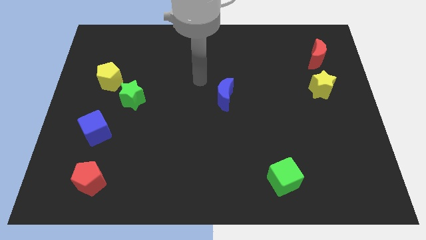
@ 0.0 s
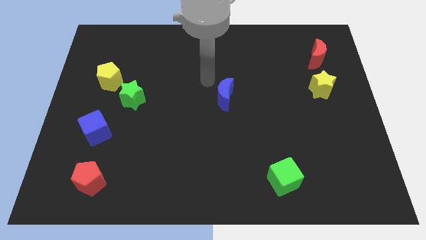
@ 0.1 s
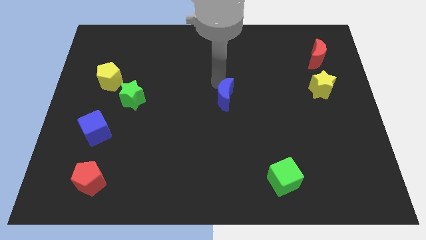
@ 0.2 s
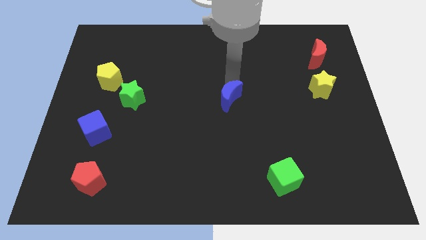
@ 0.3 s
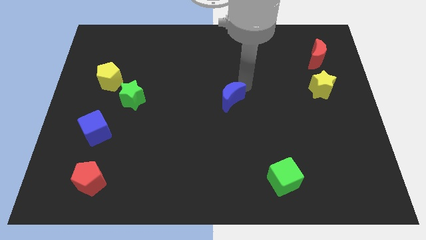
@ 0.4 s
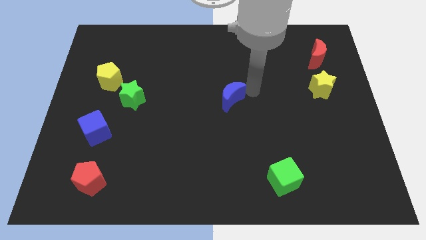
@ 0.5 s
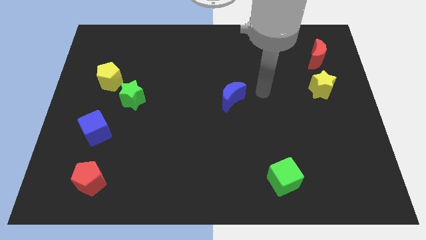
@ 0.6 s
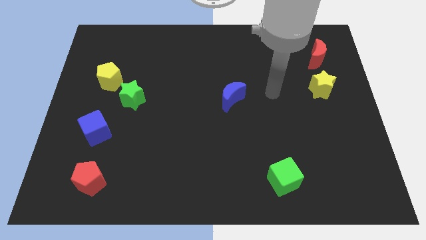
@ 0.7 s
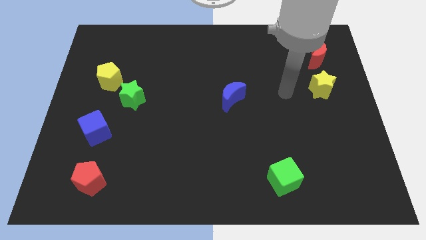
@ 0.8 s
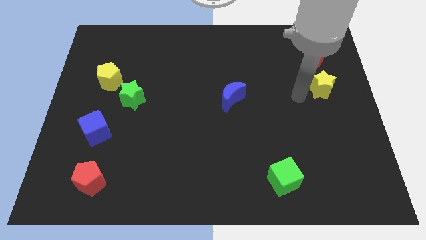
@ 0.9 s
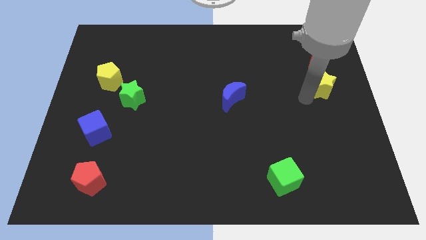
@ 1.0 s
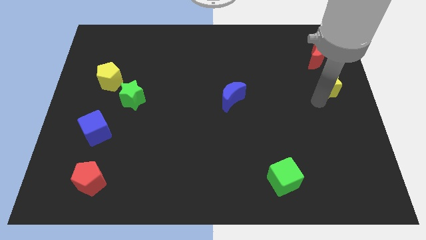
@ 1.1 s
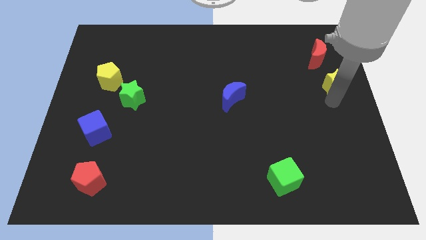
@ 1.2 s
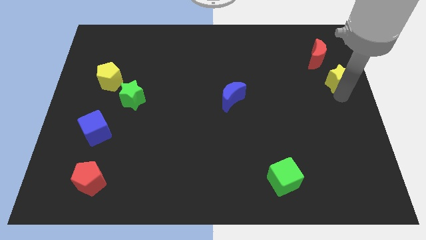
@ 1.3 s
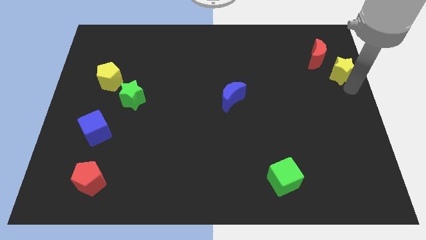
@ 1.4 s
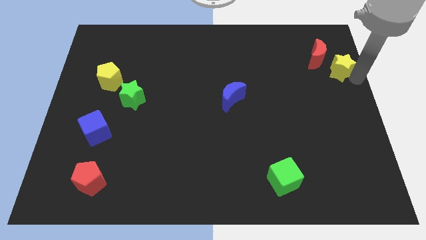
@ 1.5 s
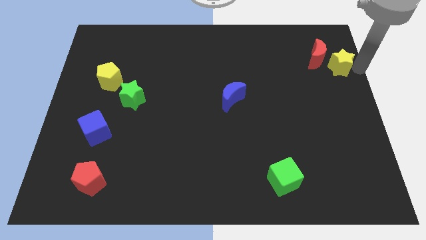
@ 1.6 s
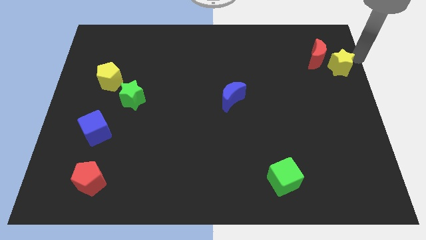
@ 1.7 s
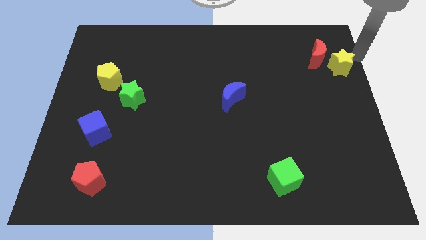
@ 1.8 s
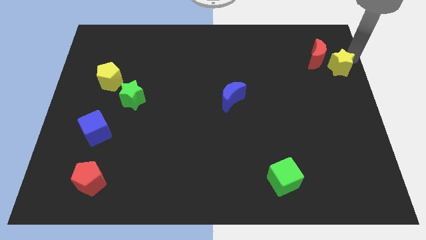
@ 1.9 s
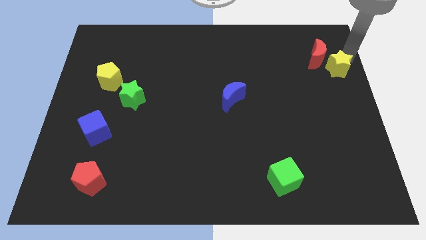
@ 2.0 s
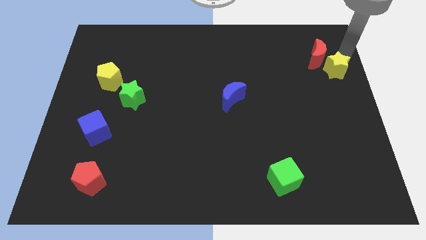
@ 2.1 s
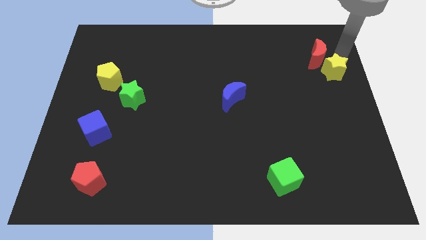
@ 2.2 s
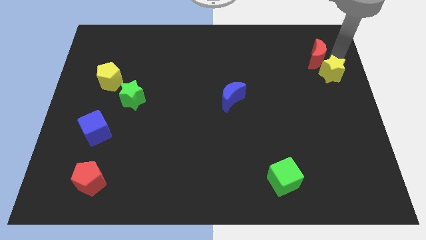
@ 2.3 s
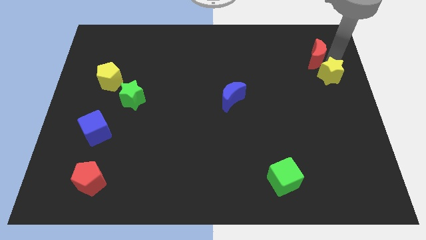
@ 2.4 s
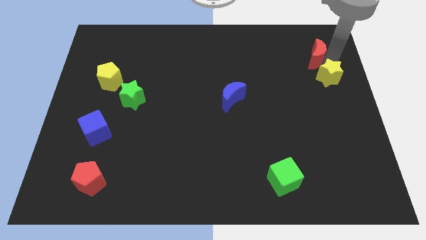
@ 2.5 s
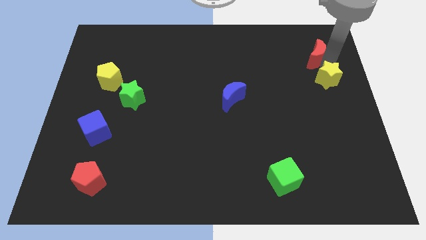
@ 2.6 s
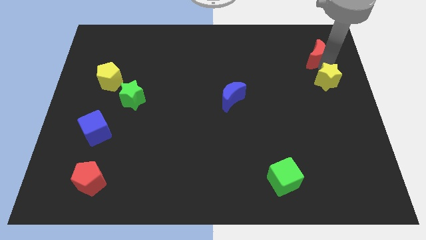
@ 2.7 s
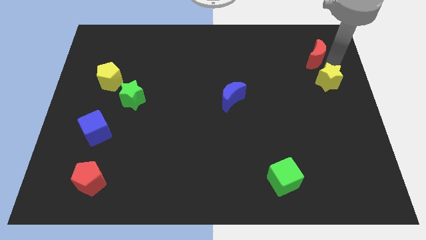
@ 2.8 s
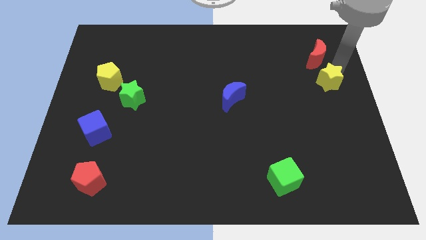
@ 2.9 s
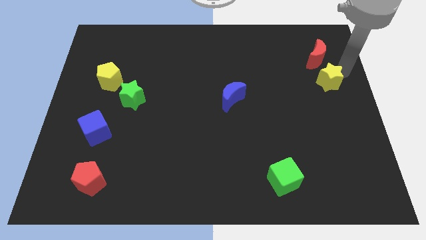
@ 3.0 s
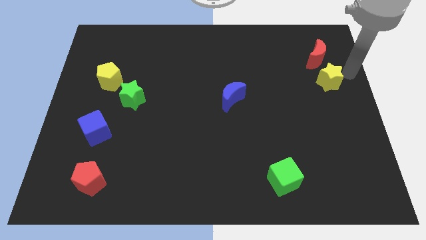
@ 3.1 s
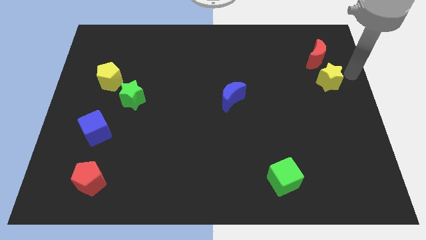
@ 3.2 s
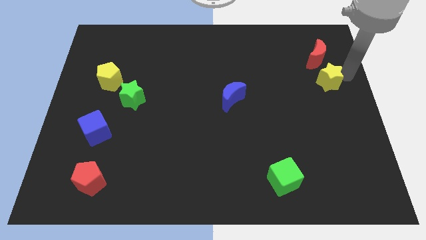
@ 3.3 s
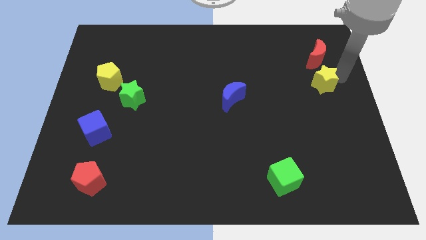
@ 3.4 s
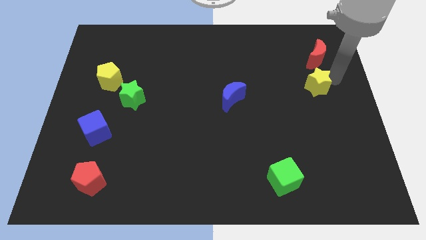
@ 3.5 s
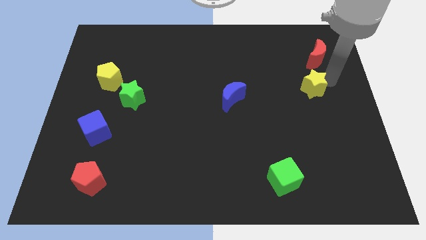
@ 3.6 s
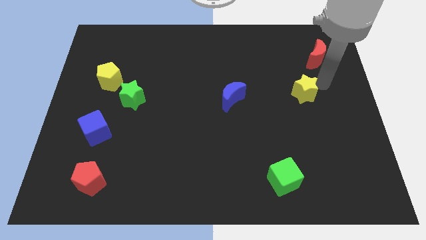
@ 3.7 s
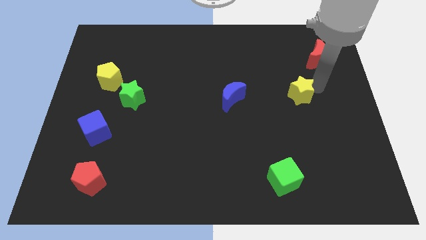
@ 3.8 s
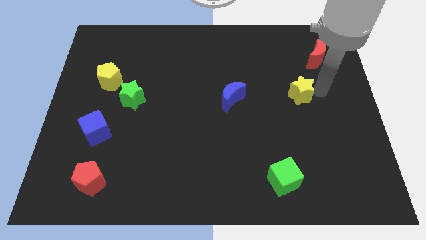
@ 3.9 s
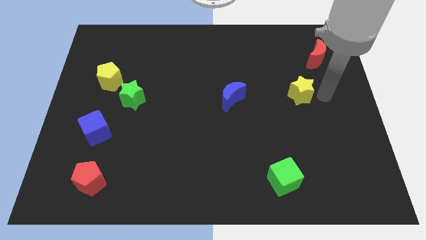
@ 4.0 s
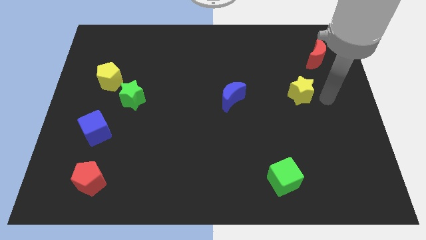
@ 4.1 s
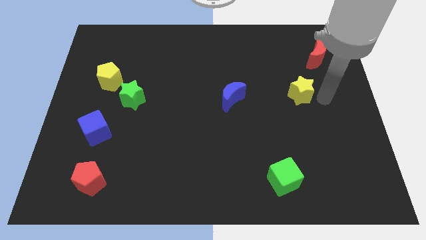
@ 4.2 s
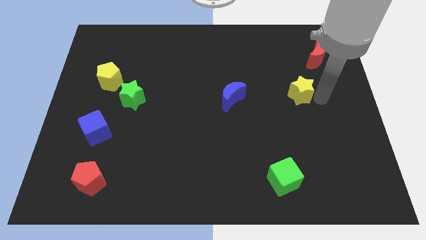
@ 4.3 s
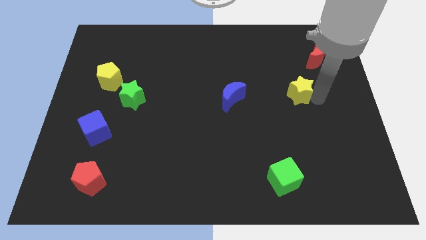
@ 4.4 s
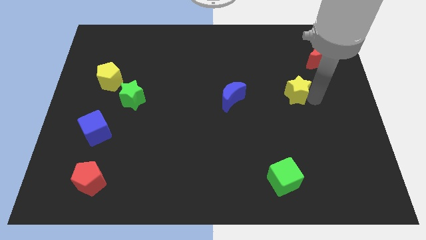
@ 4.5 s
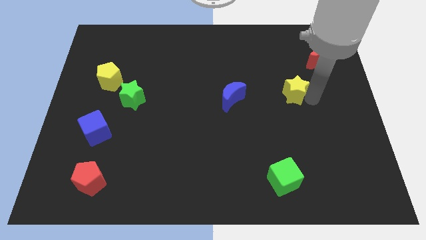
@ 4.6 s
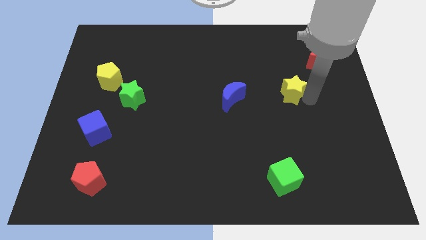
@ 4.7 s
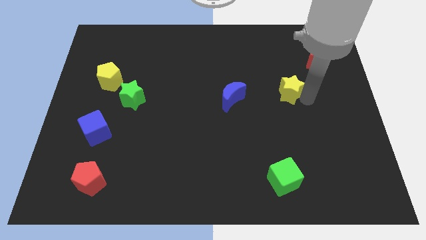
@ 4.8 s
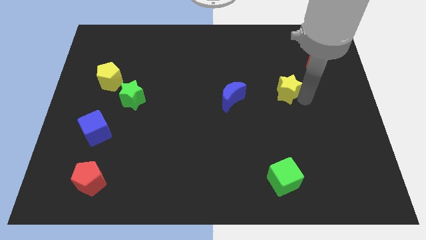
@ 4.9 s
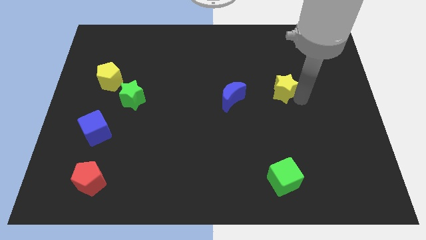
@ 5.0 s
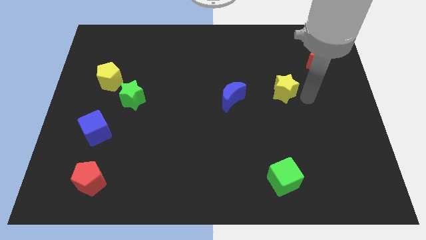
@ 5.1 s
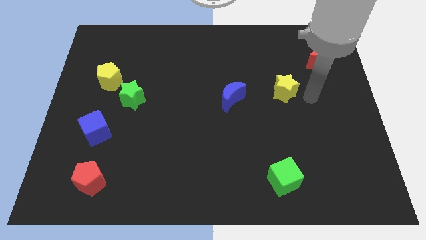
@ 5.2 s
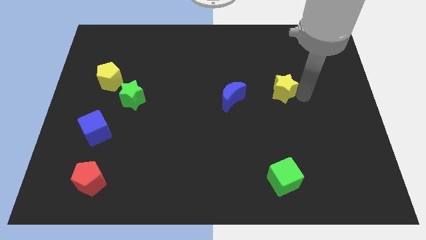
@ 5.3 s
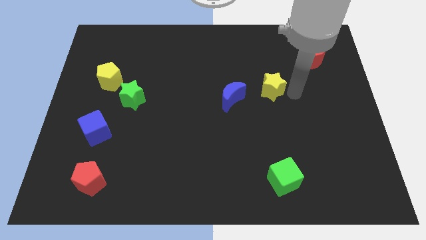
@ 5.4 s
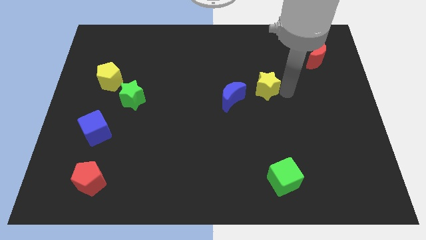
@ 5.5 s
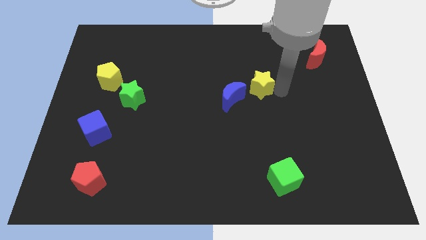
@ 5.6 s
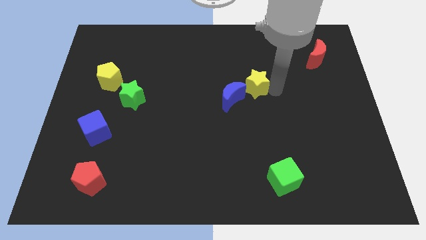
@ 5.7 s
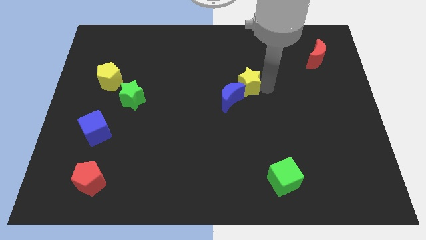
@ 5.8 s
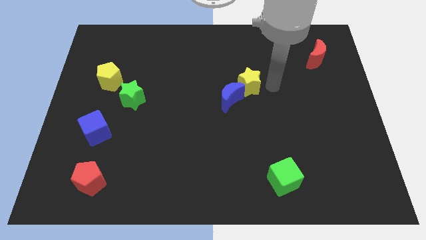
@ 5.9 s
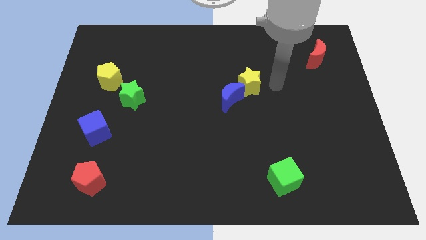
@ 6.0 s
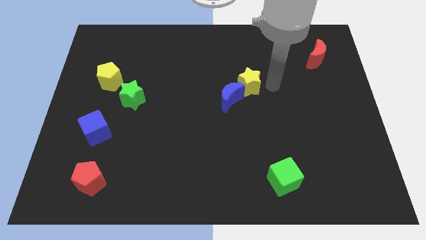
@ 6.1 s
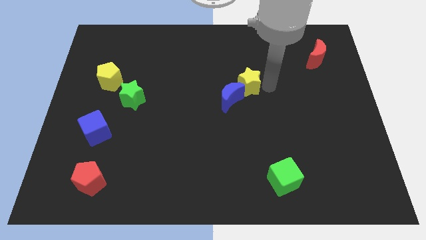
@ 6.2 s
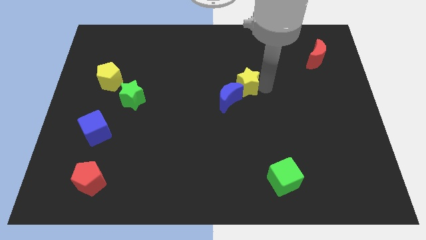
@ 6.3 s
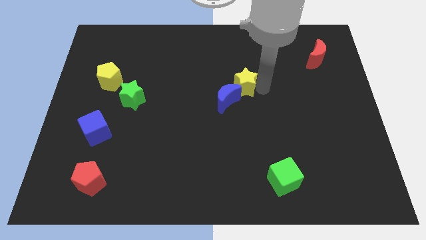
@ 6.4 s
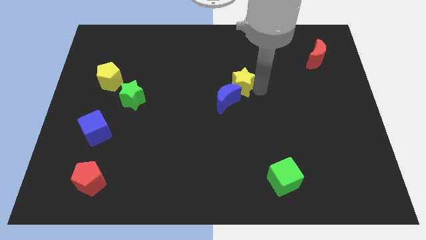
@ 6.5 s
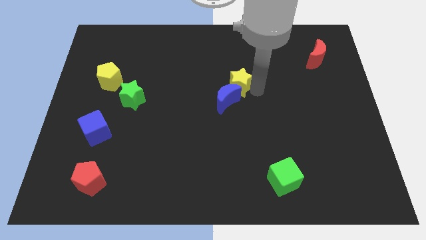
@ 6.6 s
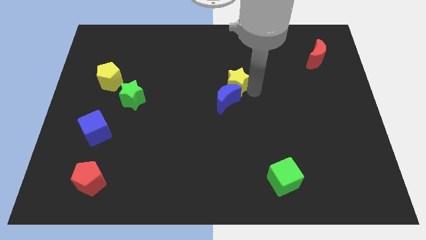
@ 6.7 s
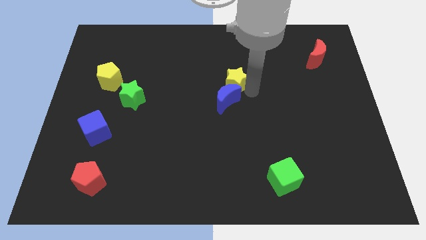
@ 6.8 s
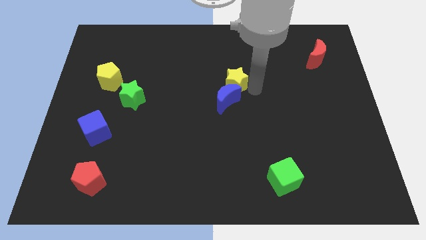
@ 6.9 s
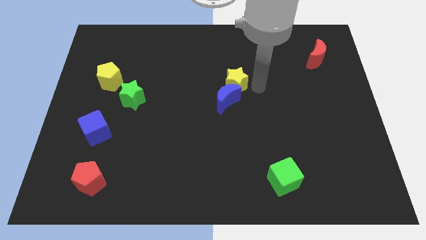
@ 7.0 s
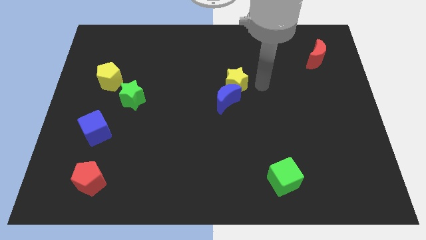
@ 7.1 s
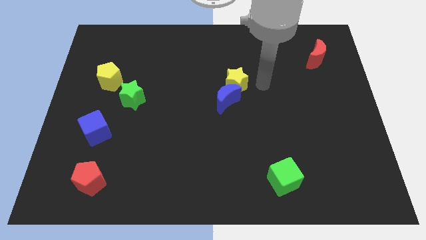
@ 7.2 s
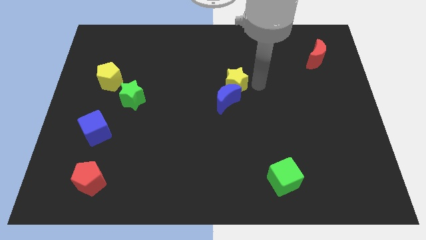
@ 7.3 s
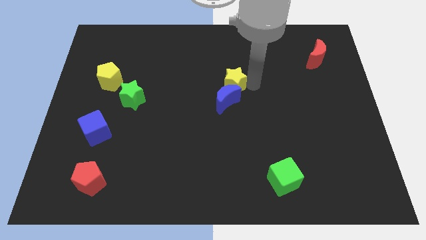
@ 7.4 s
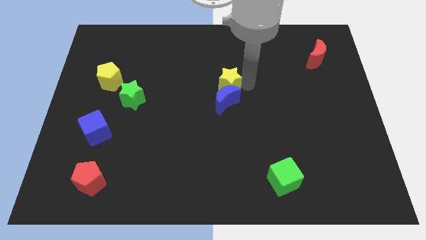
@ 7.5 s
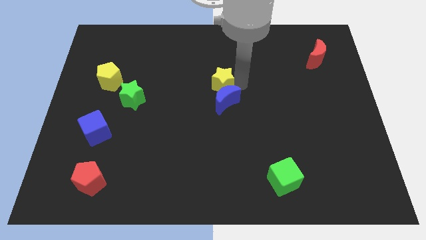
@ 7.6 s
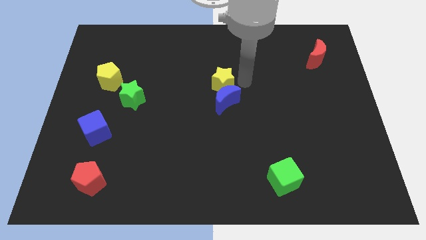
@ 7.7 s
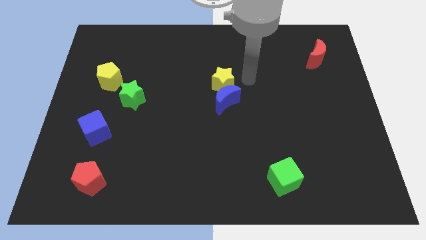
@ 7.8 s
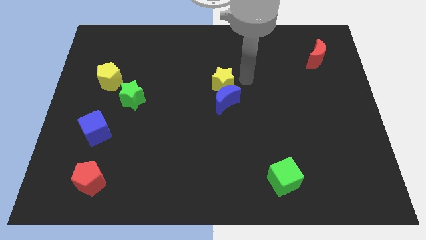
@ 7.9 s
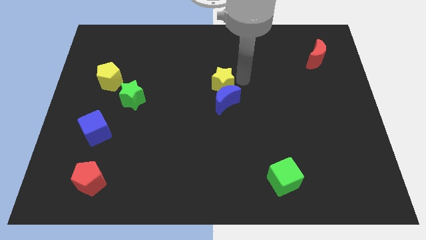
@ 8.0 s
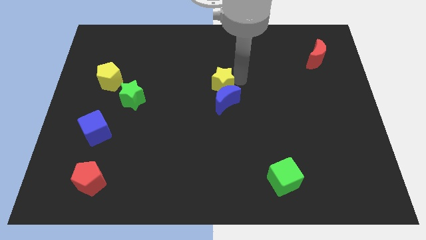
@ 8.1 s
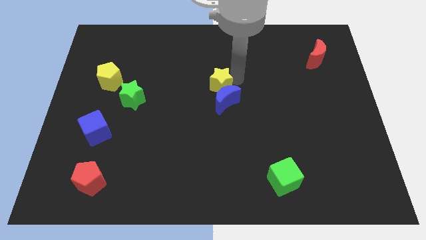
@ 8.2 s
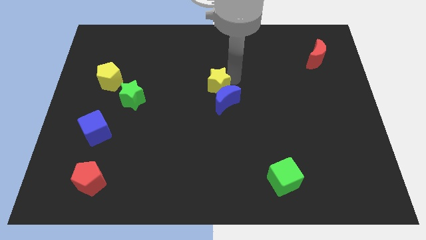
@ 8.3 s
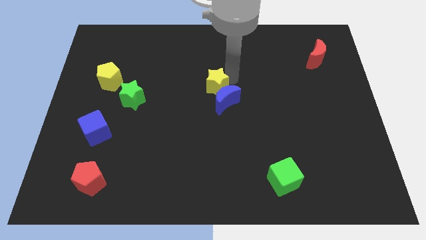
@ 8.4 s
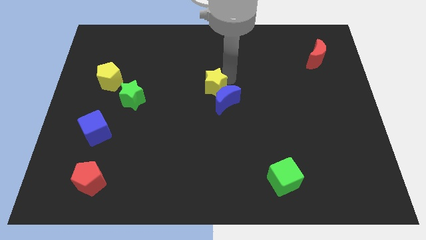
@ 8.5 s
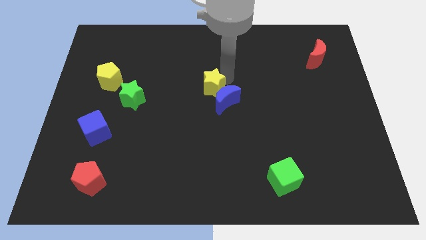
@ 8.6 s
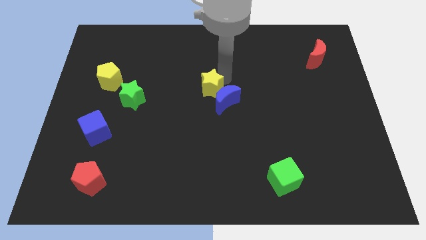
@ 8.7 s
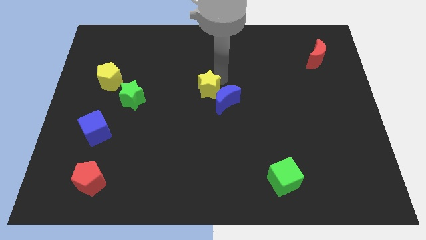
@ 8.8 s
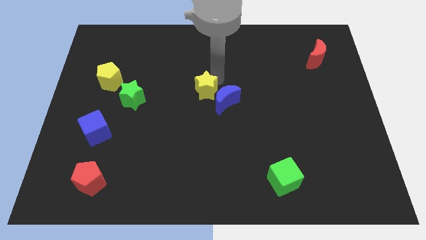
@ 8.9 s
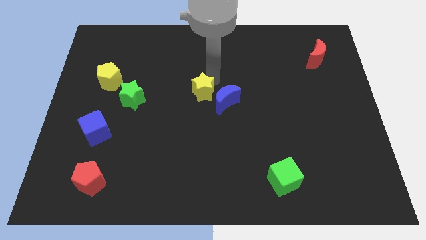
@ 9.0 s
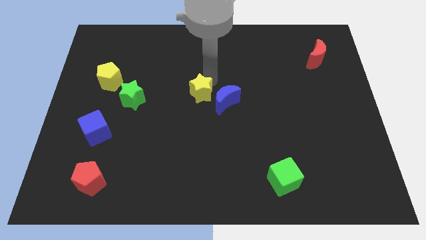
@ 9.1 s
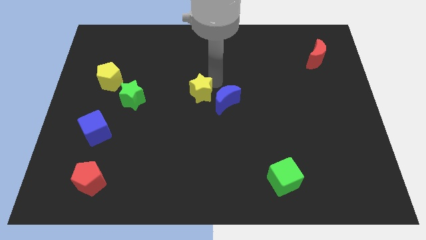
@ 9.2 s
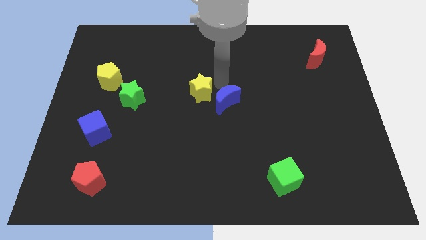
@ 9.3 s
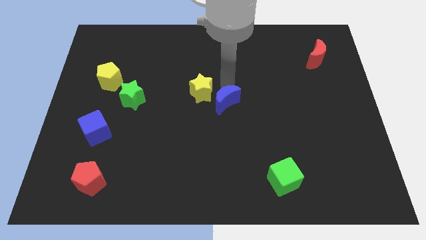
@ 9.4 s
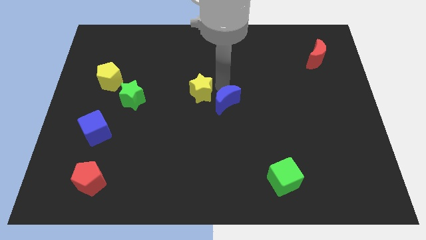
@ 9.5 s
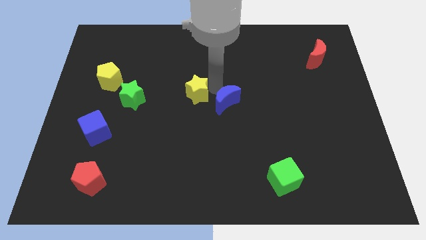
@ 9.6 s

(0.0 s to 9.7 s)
put the yellow star right of the green star
